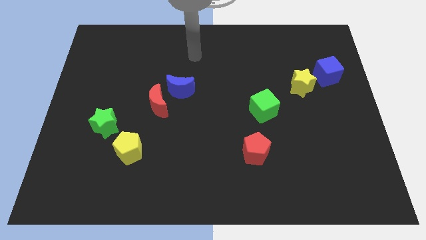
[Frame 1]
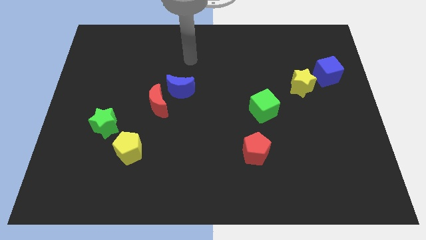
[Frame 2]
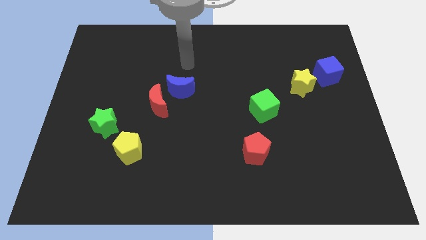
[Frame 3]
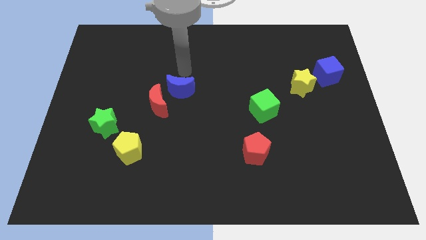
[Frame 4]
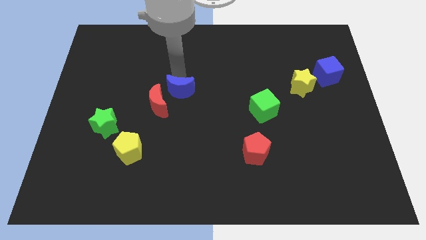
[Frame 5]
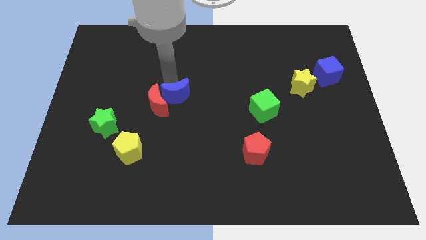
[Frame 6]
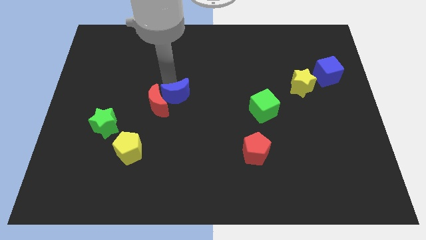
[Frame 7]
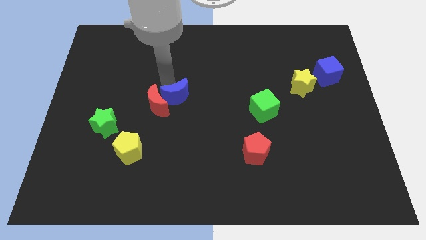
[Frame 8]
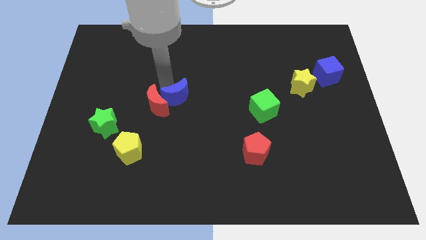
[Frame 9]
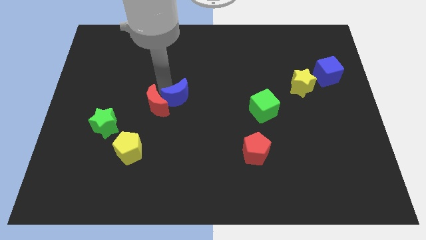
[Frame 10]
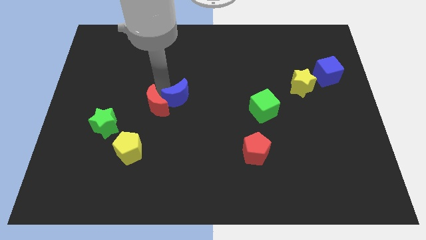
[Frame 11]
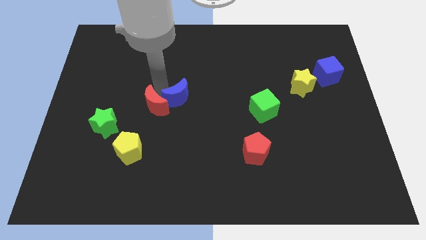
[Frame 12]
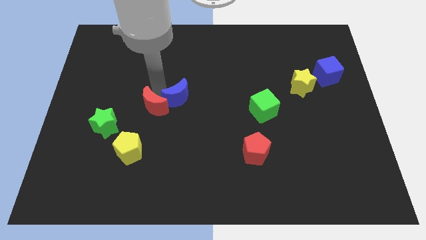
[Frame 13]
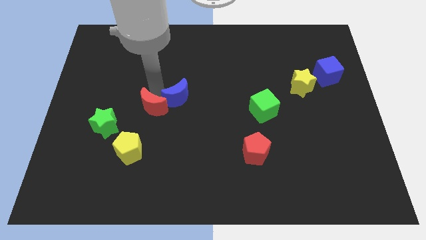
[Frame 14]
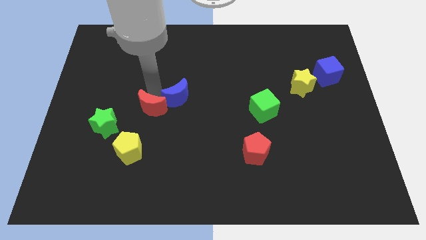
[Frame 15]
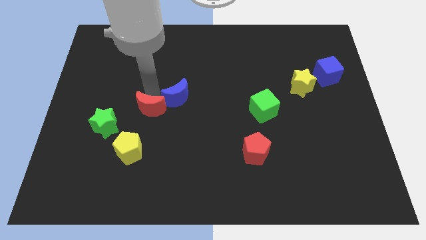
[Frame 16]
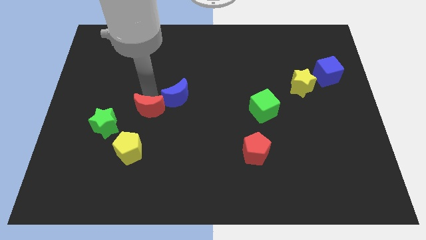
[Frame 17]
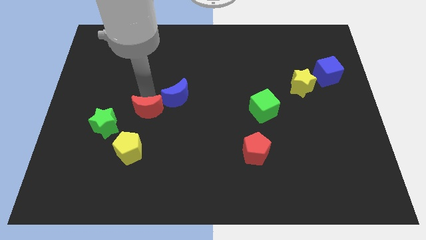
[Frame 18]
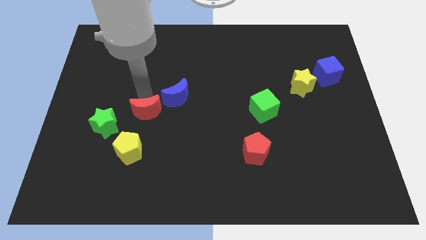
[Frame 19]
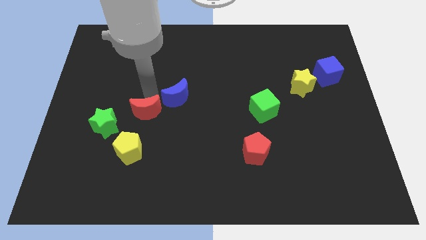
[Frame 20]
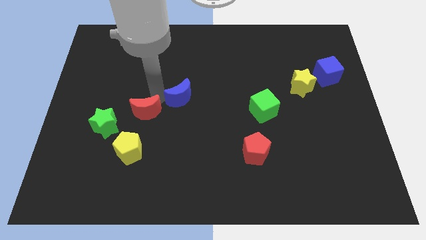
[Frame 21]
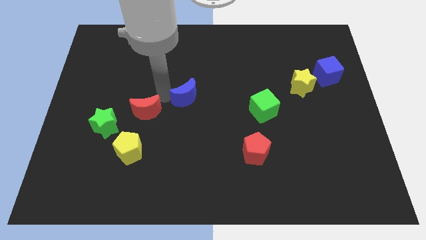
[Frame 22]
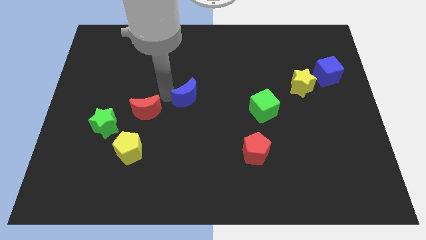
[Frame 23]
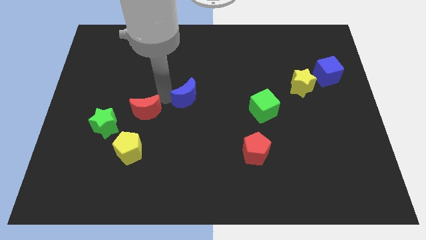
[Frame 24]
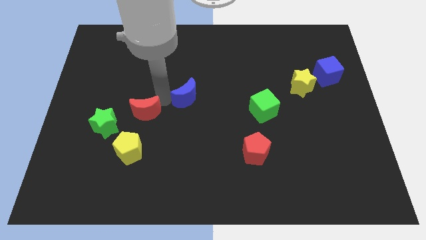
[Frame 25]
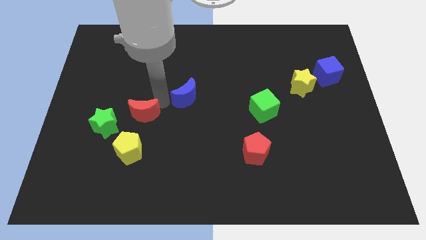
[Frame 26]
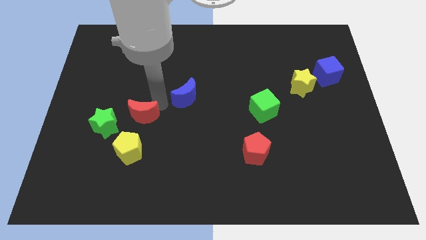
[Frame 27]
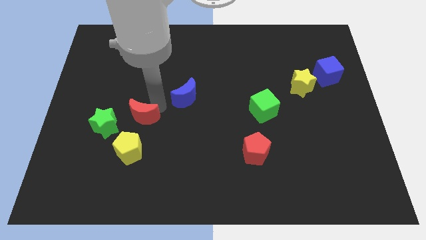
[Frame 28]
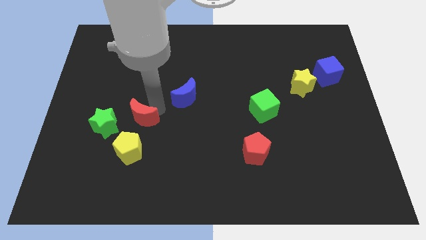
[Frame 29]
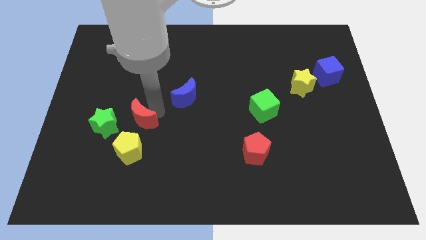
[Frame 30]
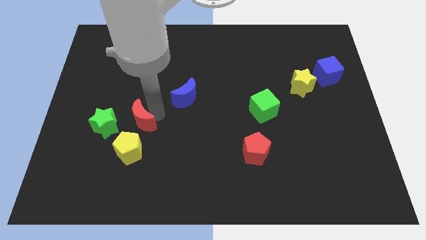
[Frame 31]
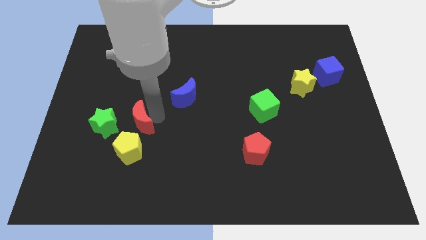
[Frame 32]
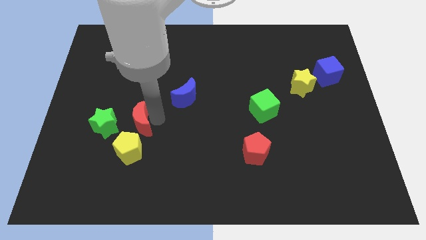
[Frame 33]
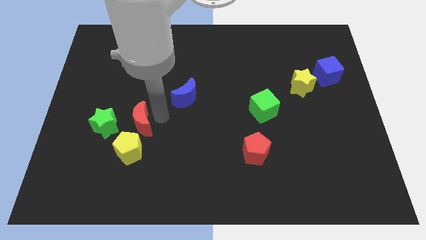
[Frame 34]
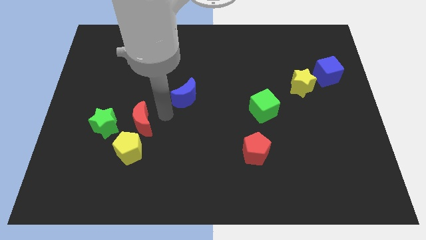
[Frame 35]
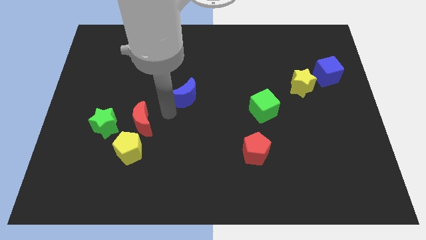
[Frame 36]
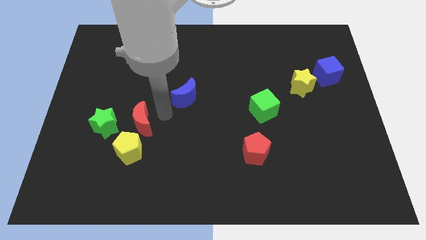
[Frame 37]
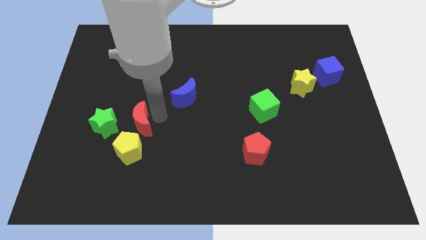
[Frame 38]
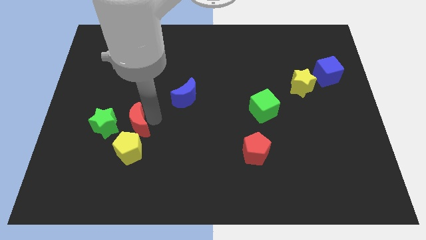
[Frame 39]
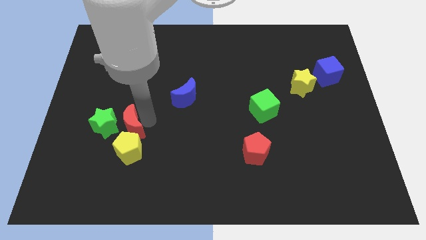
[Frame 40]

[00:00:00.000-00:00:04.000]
slide the red moon a little down and then left

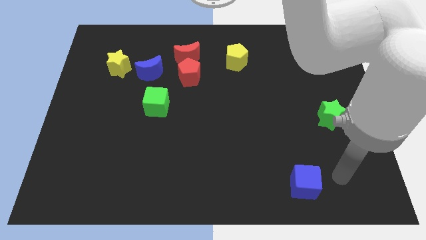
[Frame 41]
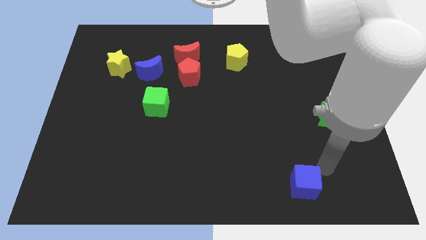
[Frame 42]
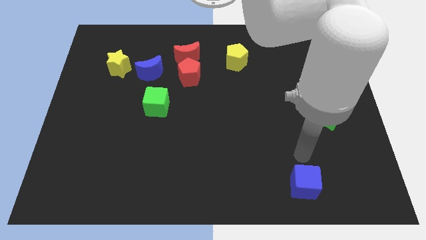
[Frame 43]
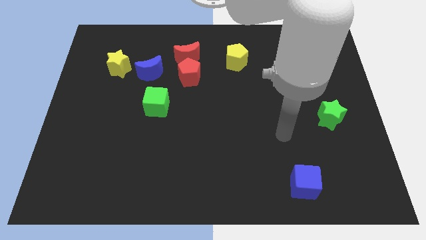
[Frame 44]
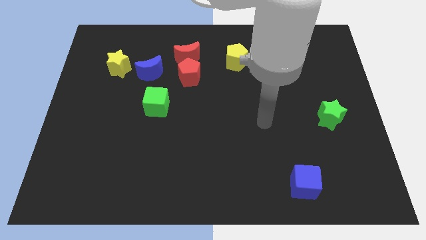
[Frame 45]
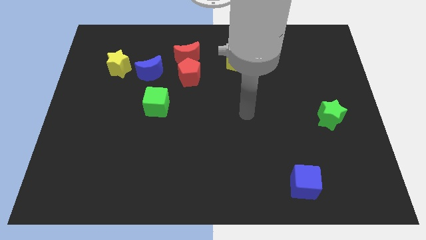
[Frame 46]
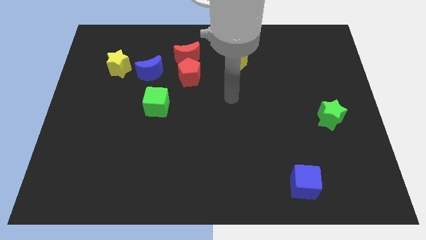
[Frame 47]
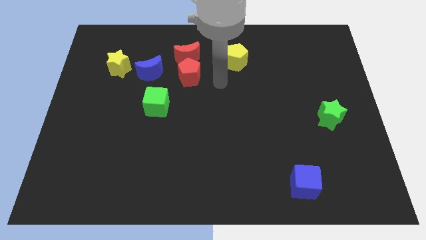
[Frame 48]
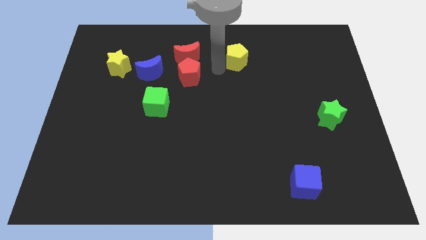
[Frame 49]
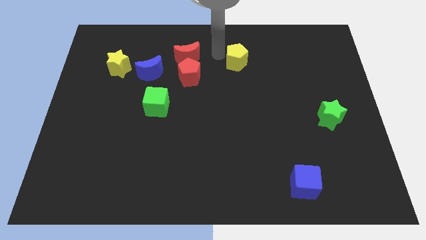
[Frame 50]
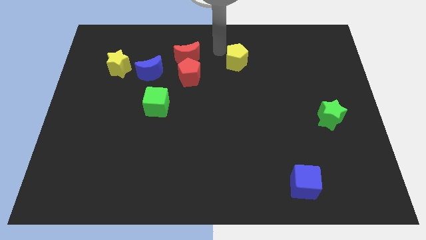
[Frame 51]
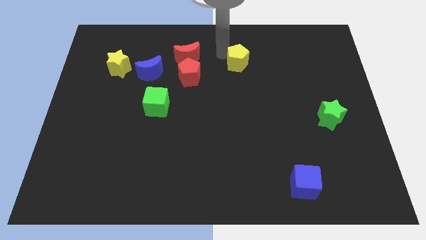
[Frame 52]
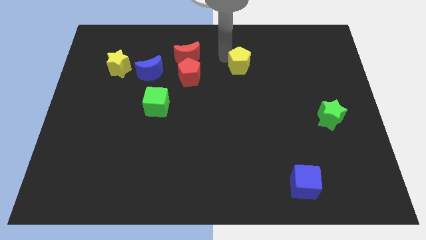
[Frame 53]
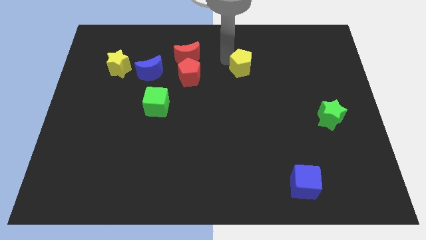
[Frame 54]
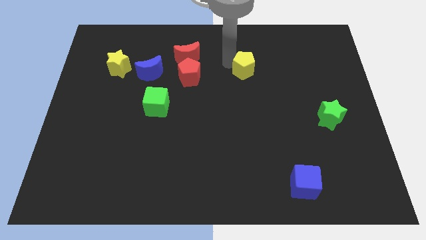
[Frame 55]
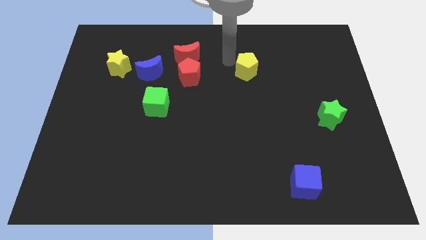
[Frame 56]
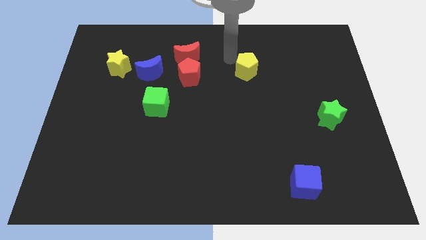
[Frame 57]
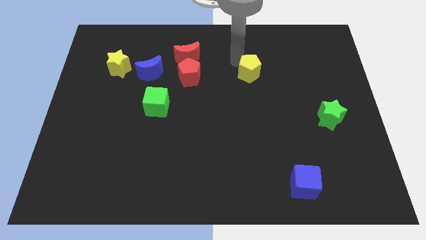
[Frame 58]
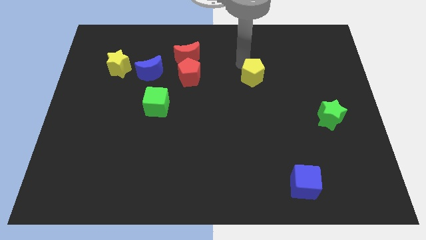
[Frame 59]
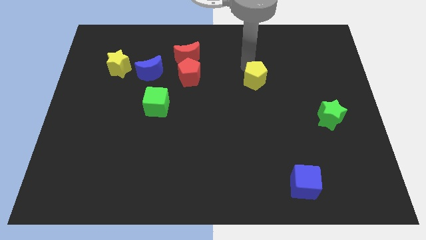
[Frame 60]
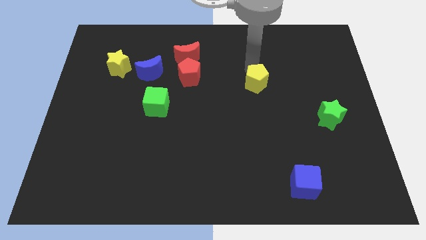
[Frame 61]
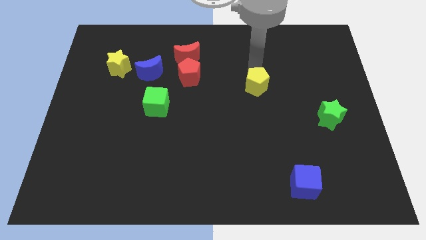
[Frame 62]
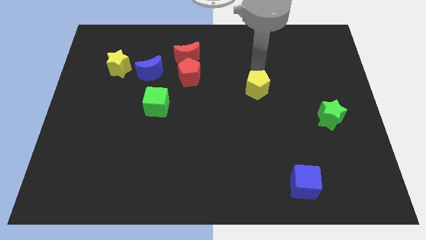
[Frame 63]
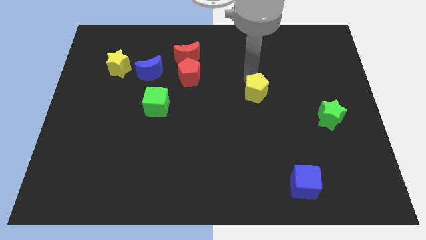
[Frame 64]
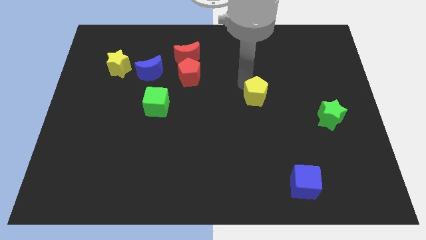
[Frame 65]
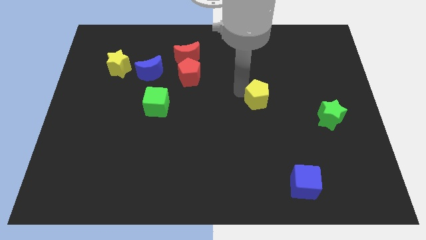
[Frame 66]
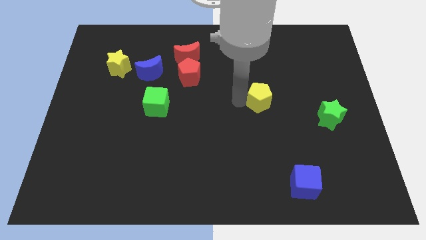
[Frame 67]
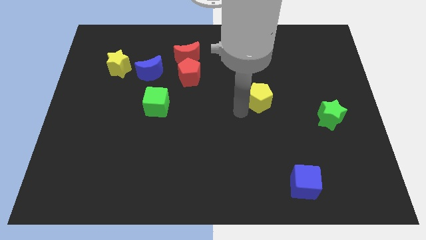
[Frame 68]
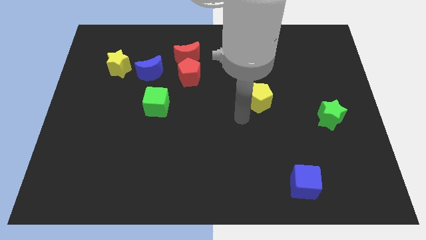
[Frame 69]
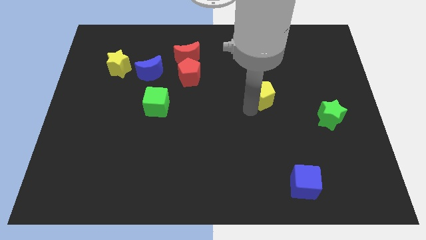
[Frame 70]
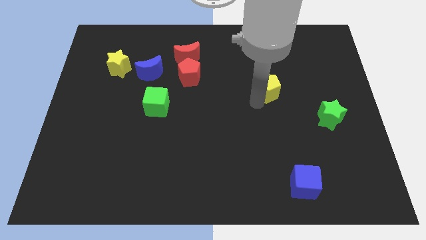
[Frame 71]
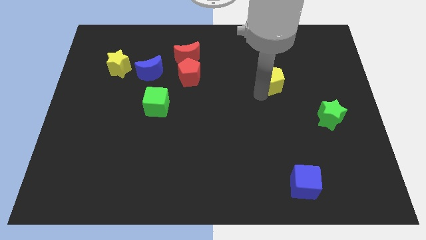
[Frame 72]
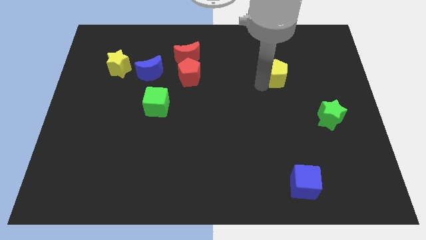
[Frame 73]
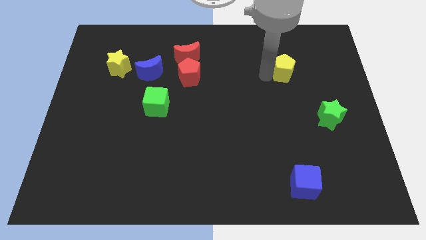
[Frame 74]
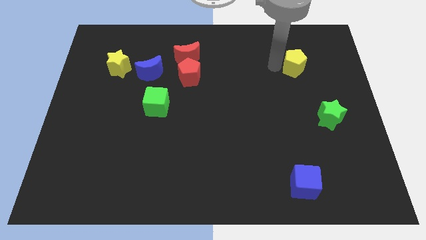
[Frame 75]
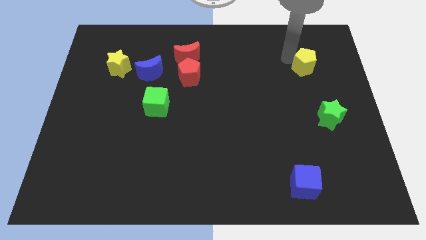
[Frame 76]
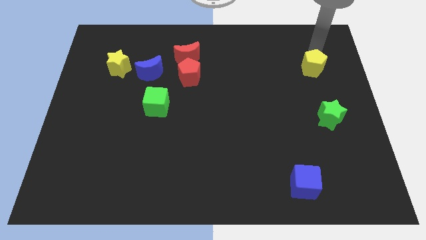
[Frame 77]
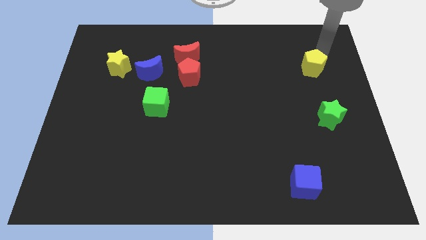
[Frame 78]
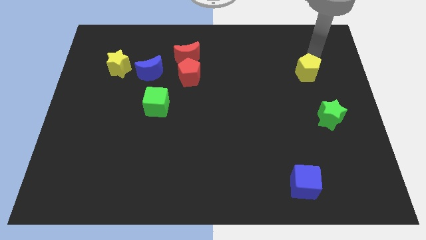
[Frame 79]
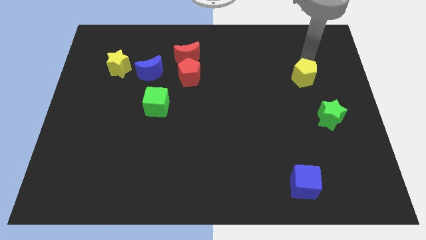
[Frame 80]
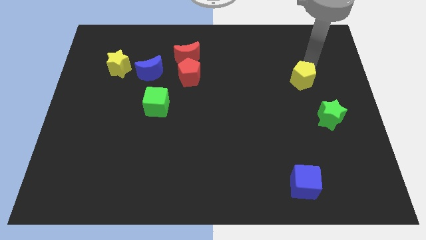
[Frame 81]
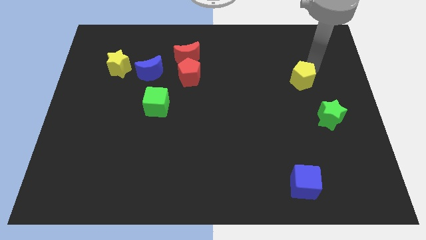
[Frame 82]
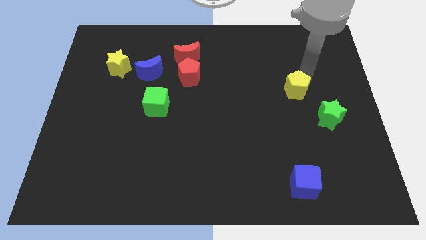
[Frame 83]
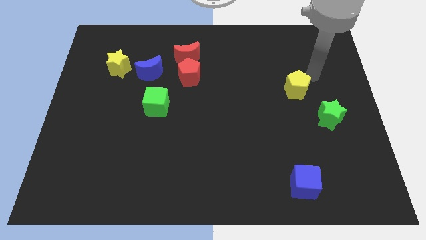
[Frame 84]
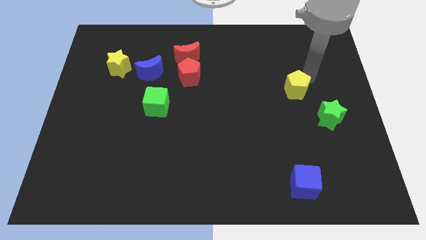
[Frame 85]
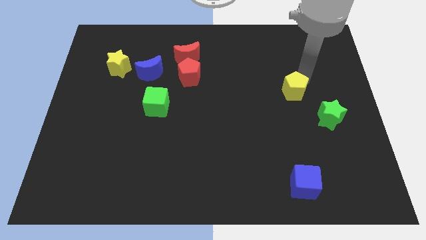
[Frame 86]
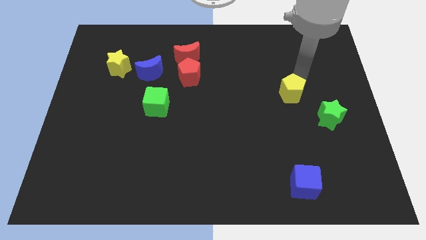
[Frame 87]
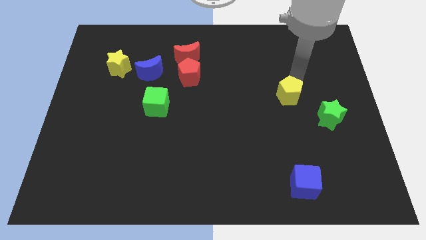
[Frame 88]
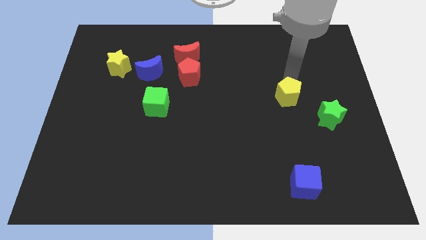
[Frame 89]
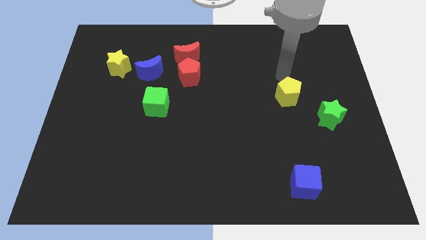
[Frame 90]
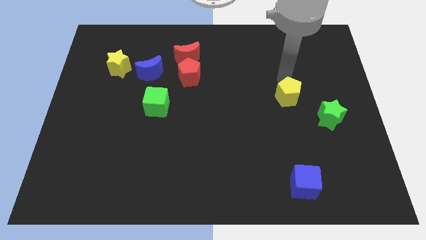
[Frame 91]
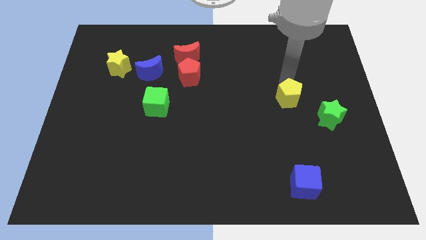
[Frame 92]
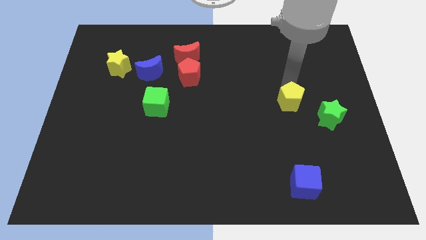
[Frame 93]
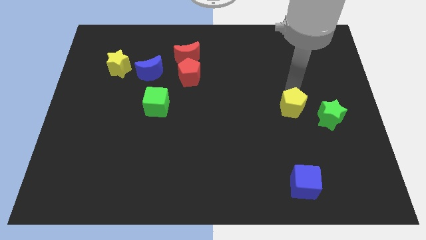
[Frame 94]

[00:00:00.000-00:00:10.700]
move the yellow pentagon down and to the right diagonally
